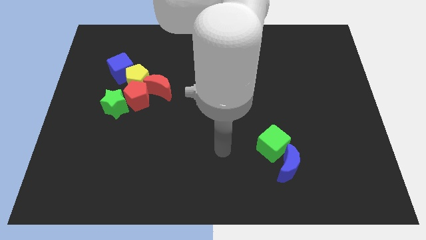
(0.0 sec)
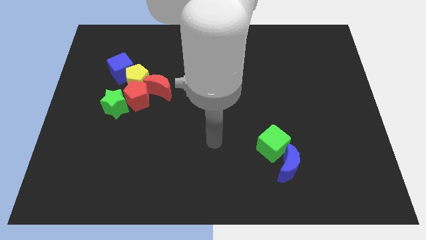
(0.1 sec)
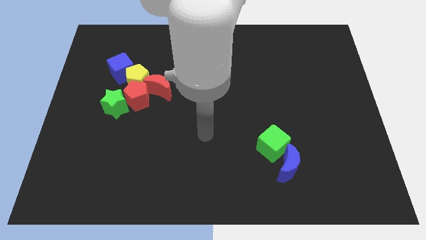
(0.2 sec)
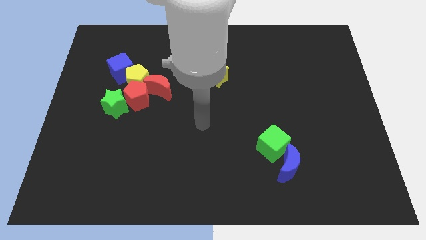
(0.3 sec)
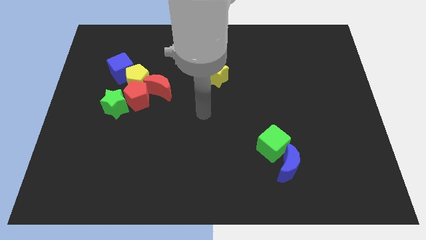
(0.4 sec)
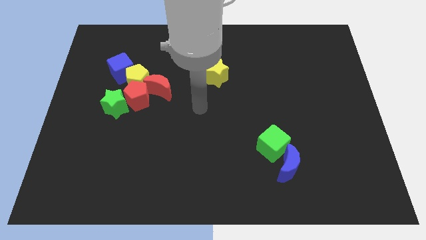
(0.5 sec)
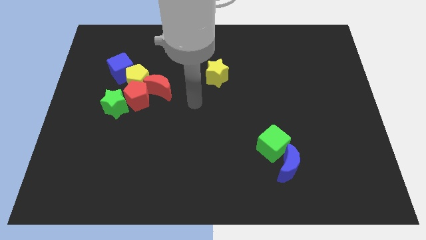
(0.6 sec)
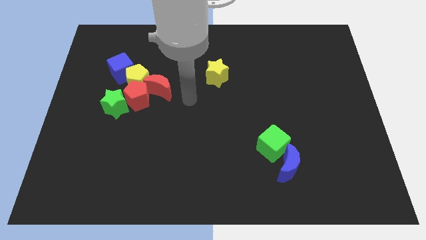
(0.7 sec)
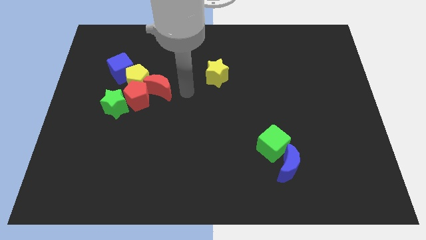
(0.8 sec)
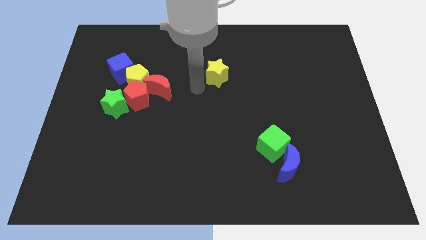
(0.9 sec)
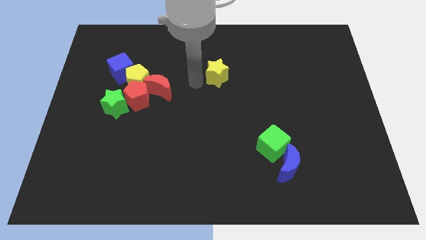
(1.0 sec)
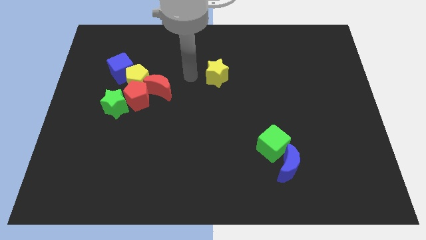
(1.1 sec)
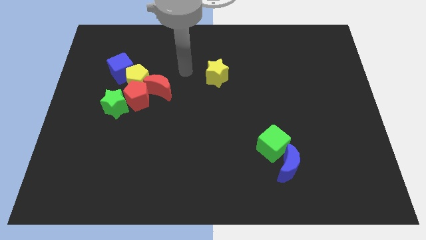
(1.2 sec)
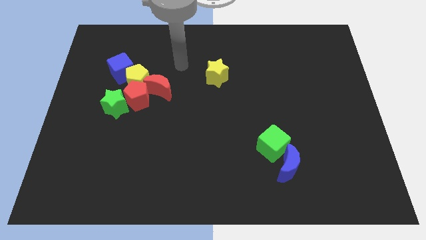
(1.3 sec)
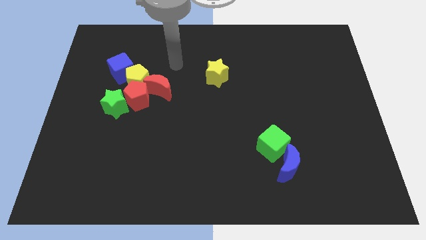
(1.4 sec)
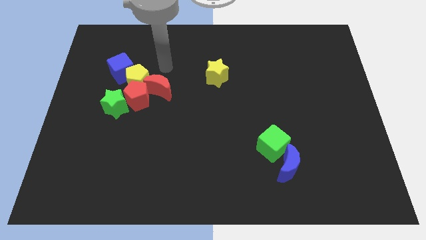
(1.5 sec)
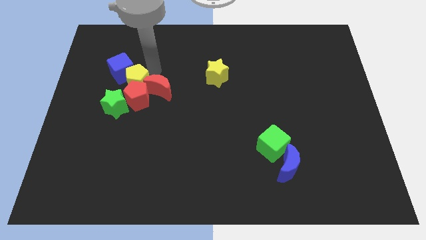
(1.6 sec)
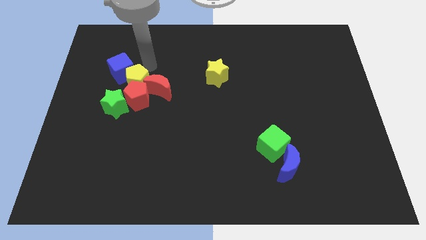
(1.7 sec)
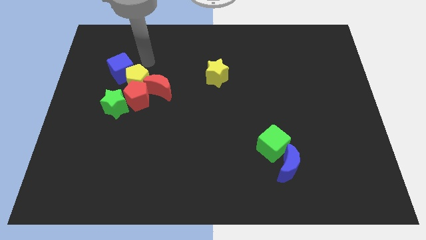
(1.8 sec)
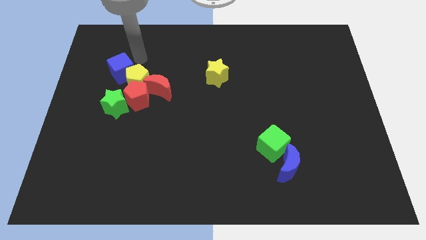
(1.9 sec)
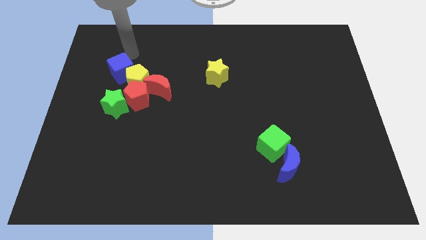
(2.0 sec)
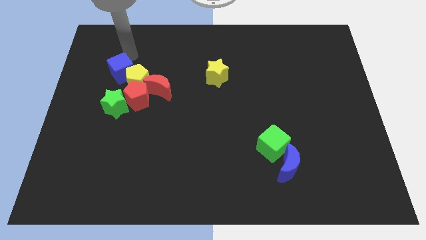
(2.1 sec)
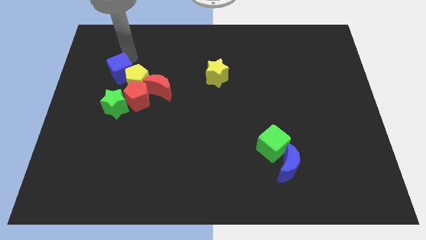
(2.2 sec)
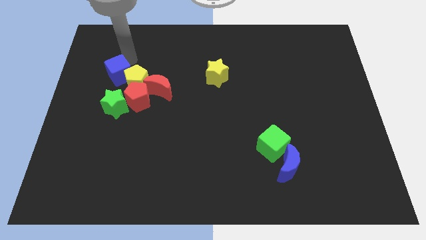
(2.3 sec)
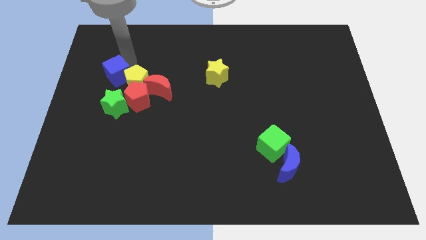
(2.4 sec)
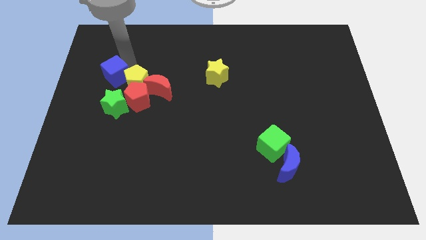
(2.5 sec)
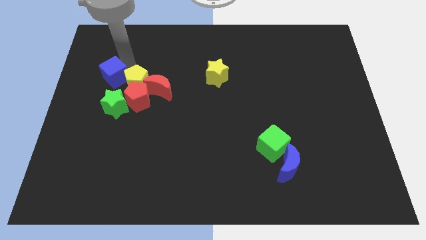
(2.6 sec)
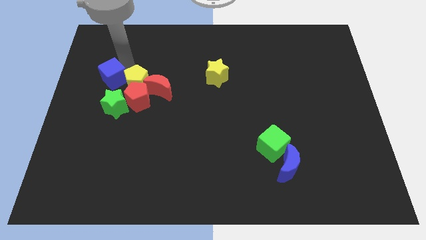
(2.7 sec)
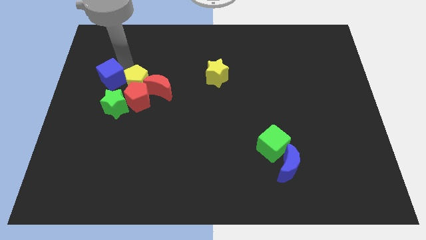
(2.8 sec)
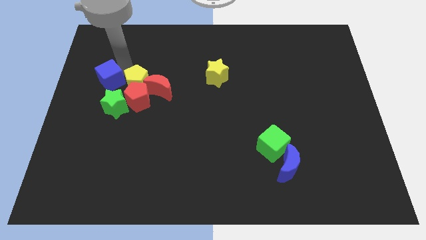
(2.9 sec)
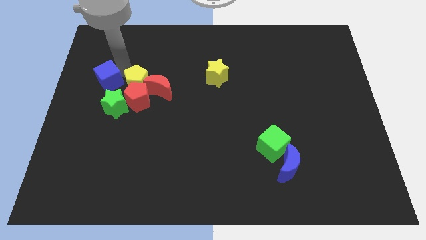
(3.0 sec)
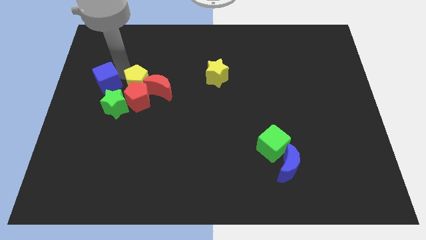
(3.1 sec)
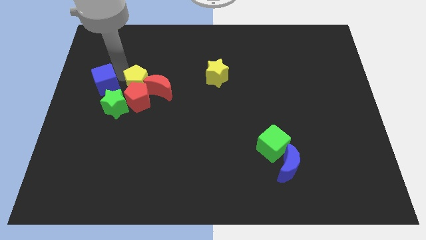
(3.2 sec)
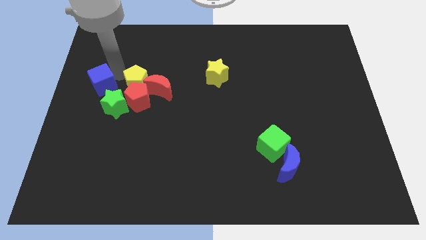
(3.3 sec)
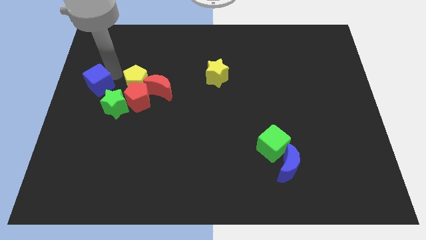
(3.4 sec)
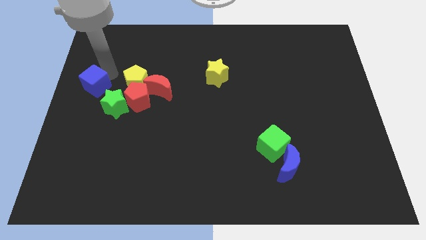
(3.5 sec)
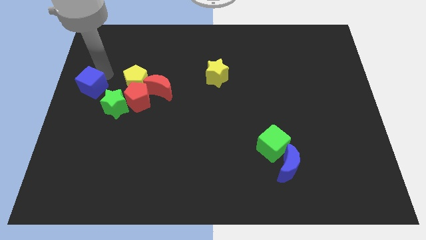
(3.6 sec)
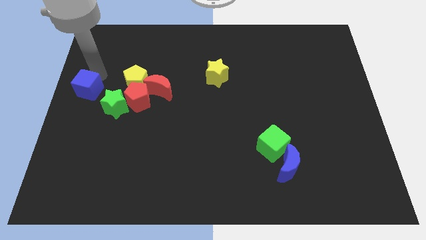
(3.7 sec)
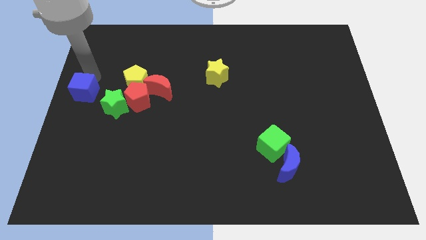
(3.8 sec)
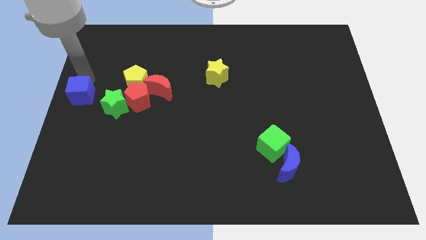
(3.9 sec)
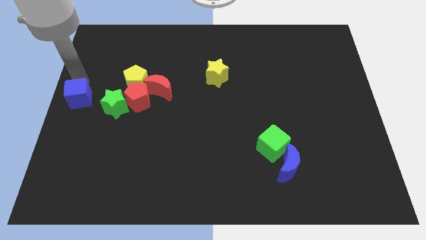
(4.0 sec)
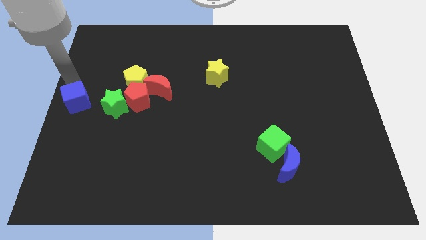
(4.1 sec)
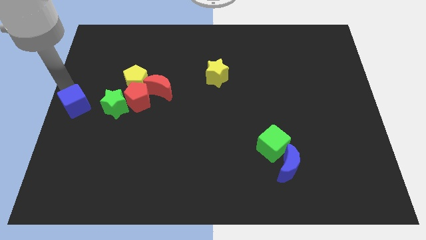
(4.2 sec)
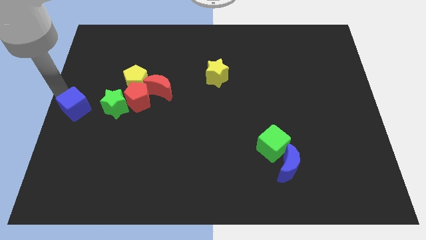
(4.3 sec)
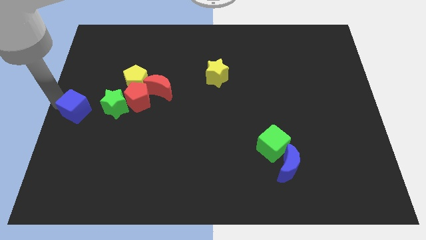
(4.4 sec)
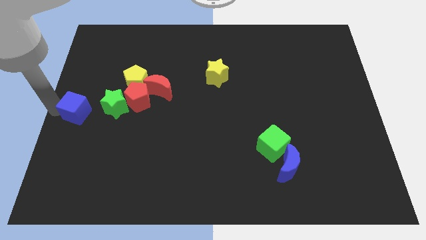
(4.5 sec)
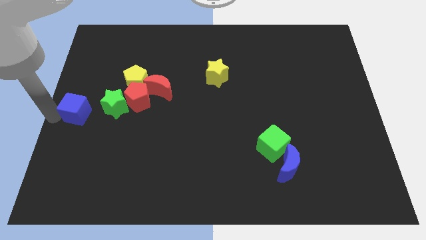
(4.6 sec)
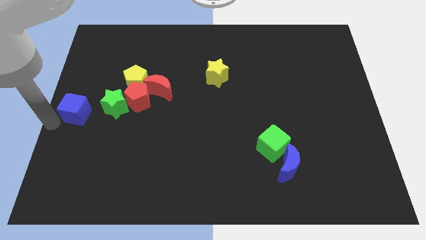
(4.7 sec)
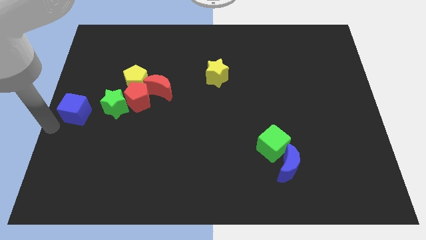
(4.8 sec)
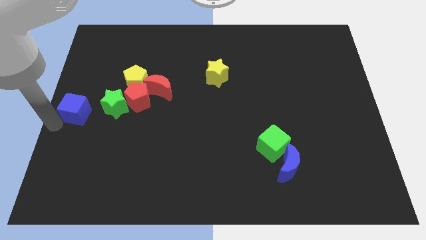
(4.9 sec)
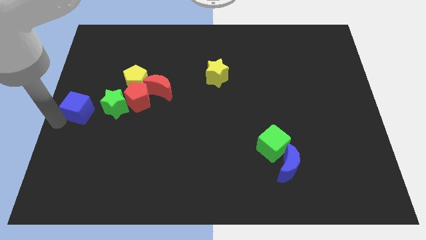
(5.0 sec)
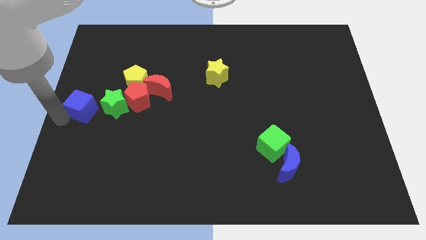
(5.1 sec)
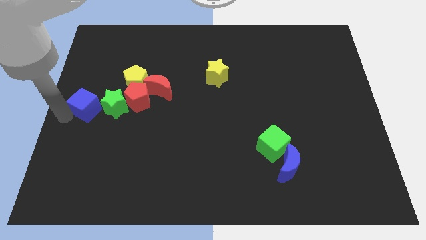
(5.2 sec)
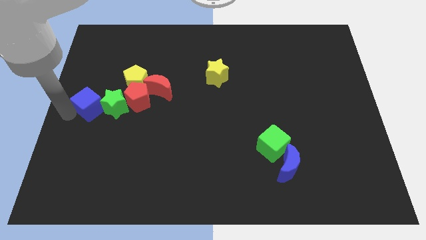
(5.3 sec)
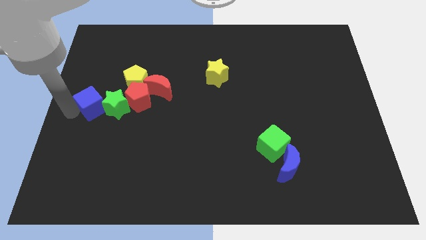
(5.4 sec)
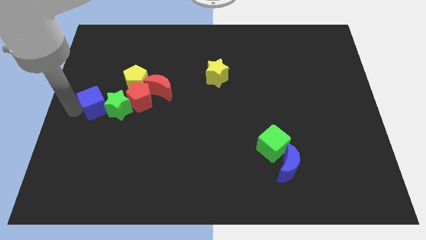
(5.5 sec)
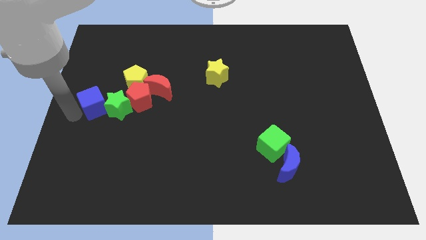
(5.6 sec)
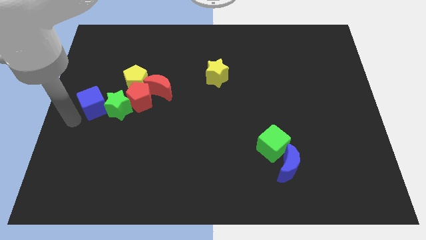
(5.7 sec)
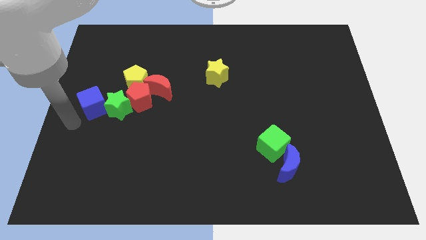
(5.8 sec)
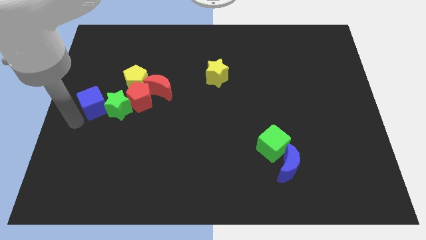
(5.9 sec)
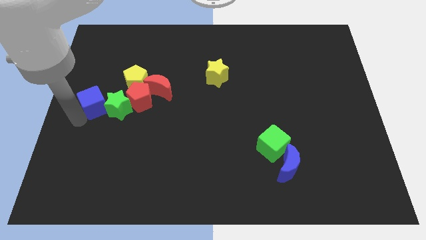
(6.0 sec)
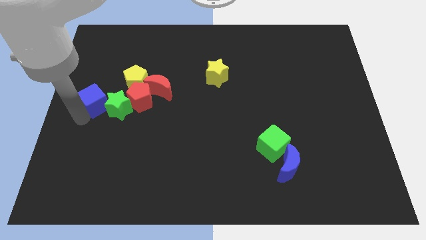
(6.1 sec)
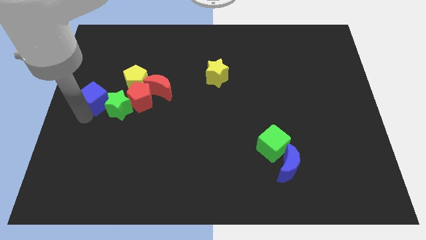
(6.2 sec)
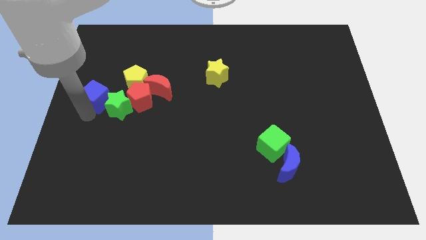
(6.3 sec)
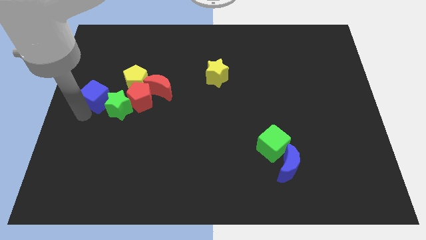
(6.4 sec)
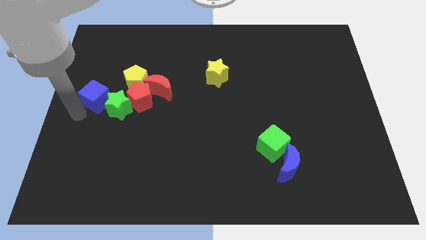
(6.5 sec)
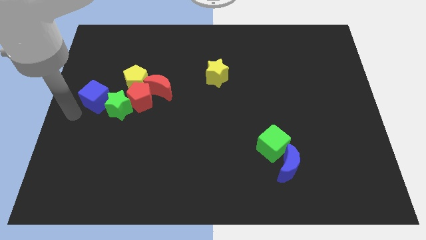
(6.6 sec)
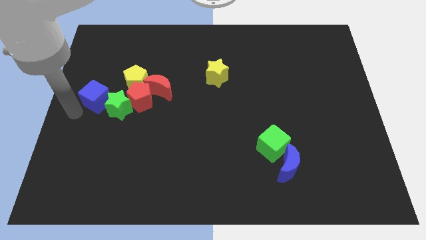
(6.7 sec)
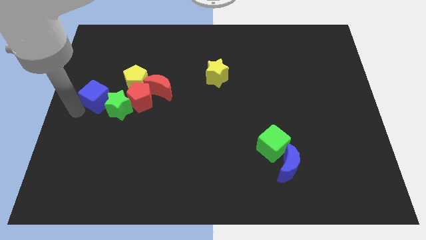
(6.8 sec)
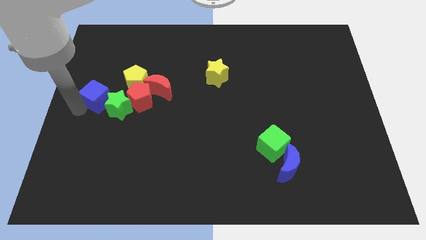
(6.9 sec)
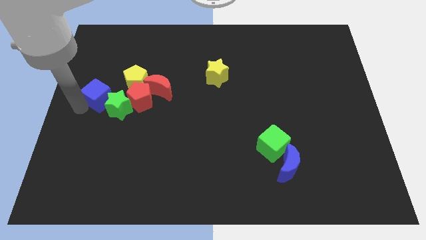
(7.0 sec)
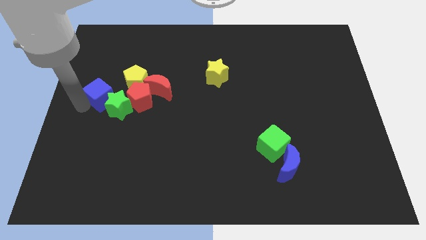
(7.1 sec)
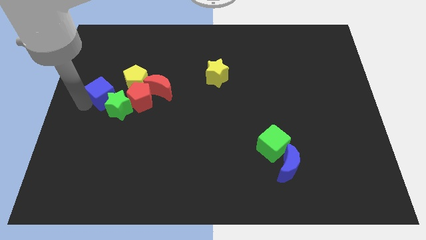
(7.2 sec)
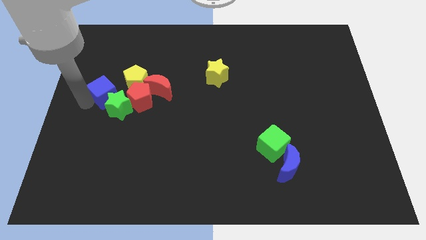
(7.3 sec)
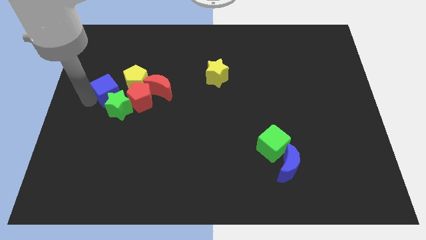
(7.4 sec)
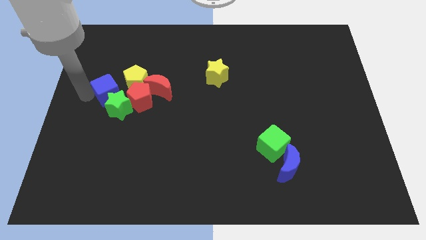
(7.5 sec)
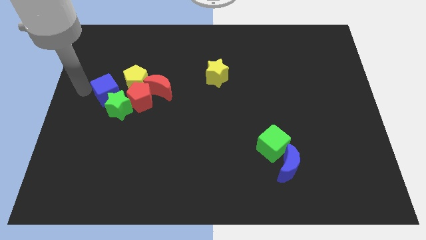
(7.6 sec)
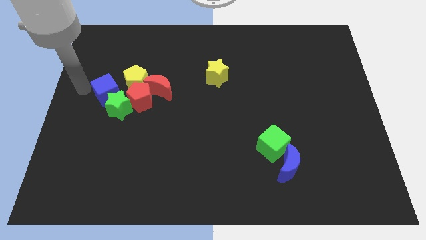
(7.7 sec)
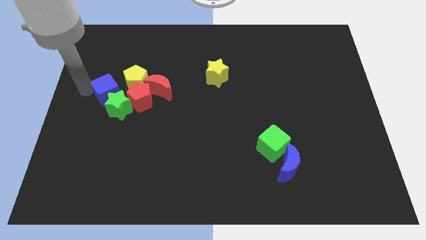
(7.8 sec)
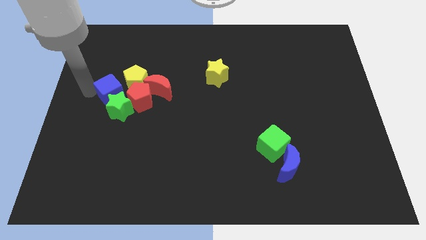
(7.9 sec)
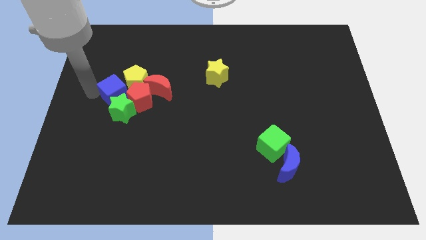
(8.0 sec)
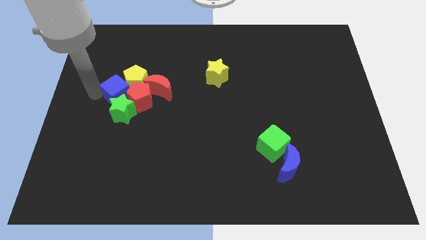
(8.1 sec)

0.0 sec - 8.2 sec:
put the blue cube towards the red pentagon
